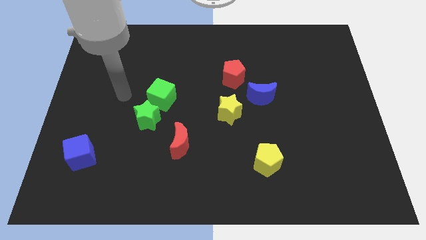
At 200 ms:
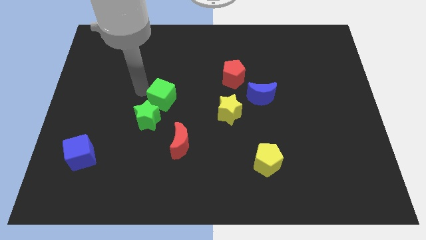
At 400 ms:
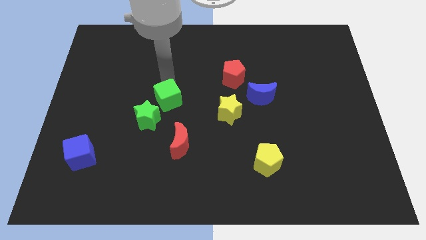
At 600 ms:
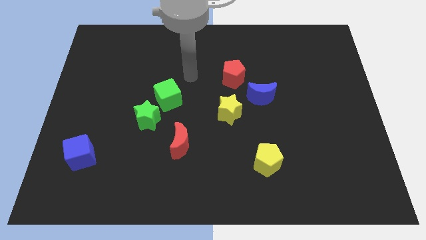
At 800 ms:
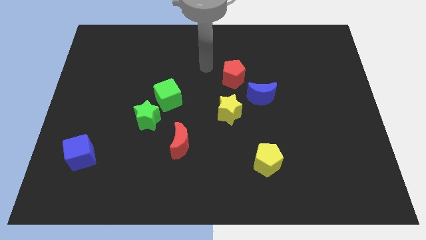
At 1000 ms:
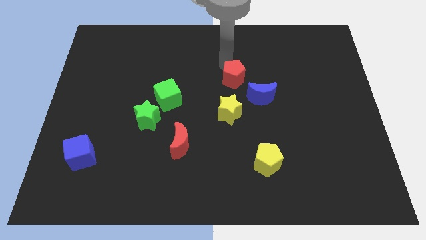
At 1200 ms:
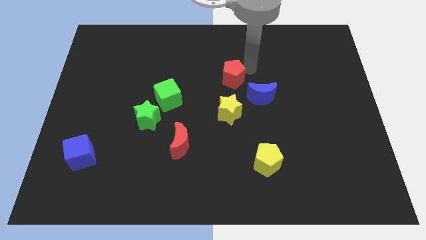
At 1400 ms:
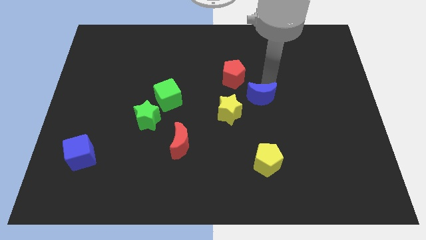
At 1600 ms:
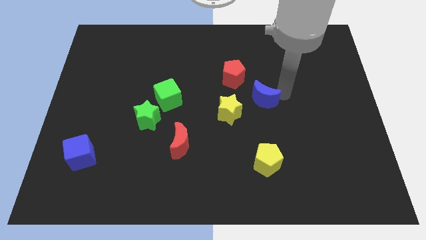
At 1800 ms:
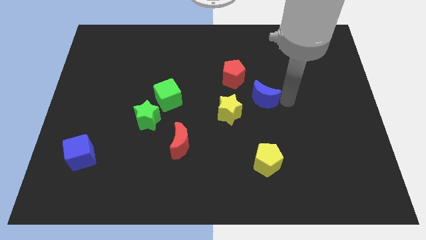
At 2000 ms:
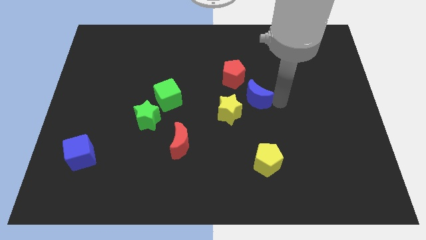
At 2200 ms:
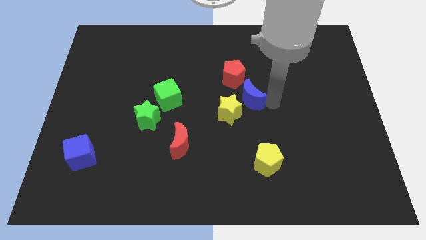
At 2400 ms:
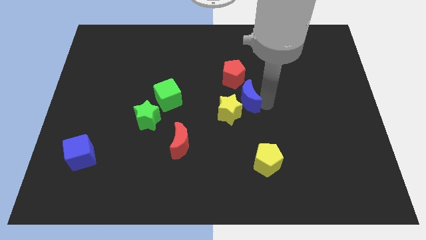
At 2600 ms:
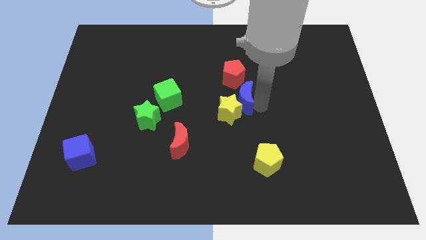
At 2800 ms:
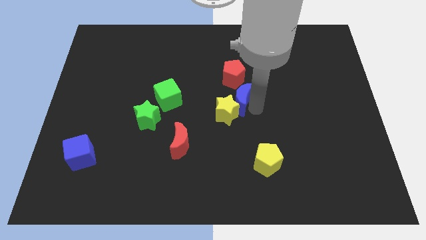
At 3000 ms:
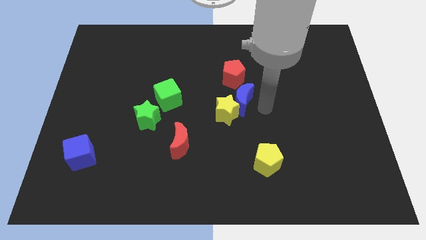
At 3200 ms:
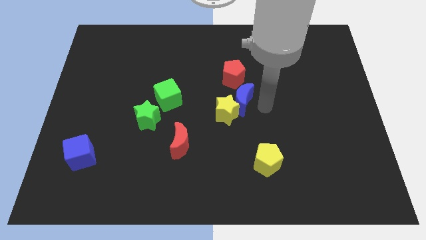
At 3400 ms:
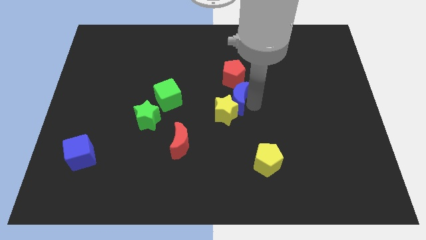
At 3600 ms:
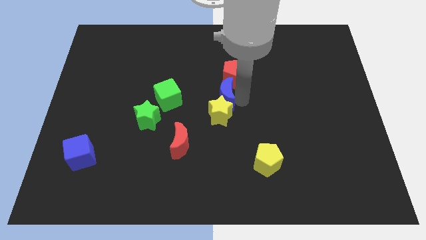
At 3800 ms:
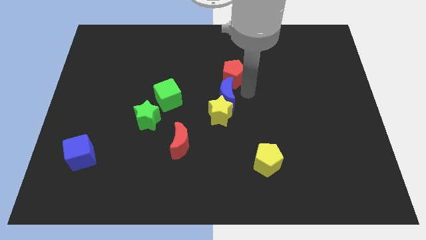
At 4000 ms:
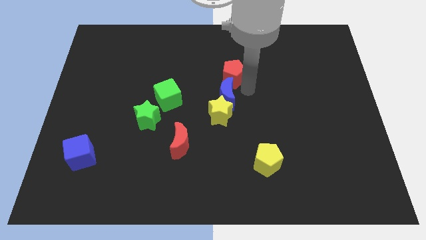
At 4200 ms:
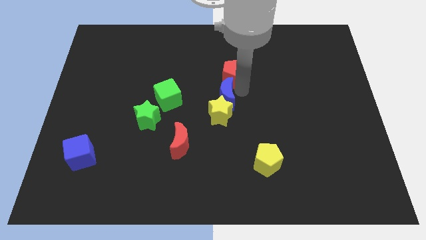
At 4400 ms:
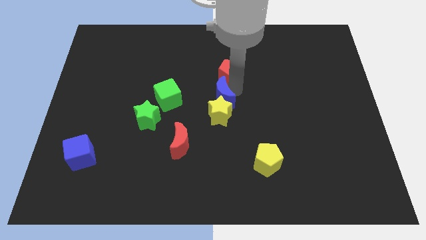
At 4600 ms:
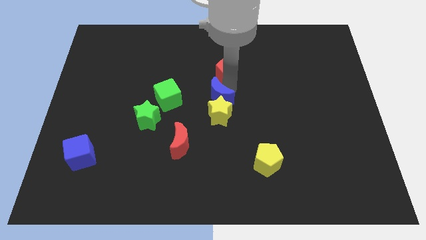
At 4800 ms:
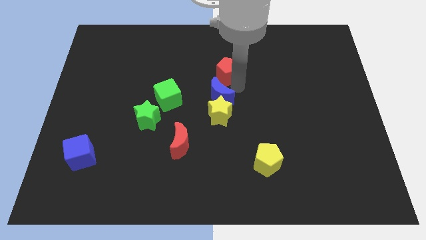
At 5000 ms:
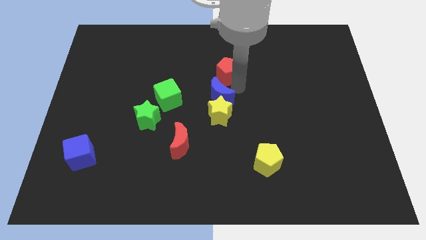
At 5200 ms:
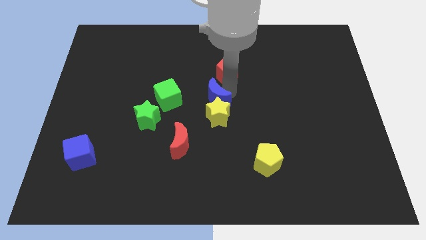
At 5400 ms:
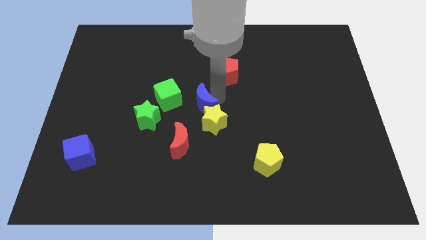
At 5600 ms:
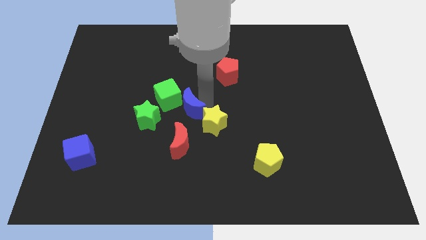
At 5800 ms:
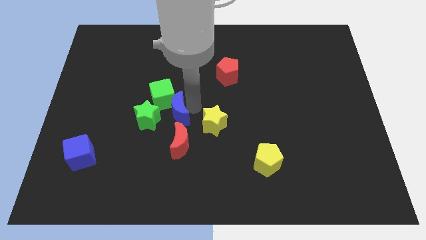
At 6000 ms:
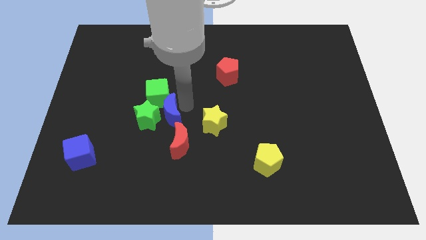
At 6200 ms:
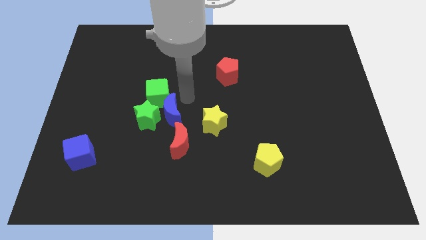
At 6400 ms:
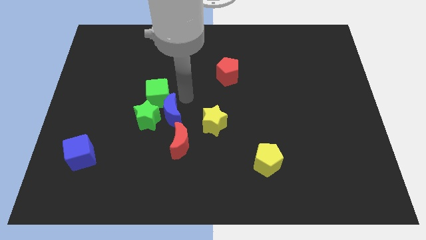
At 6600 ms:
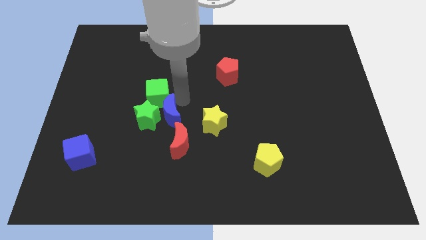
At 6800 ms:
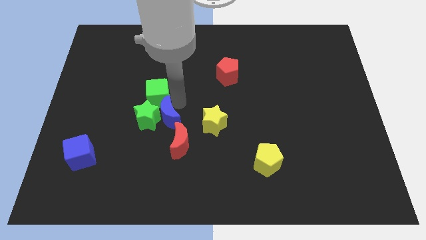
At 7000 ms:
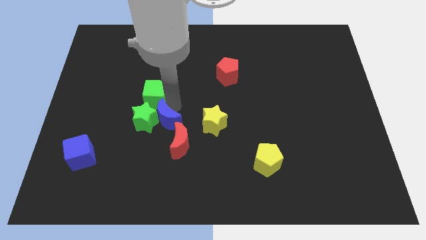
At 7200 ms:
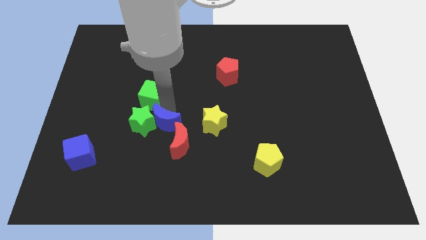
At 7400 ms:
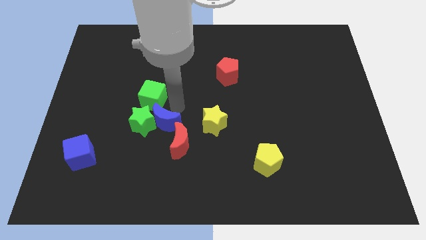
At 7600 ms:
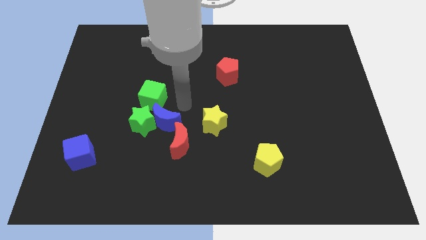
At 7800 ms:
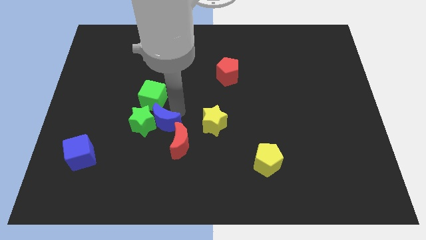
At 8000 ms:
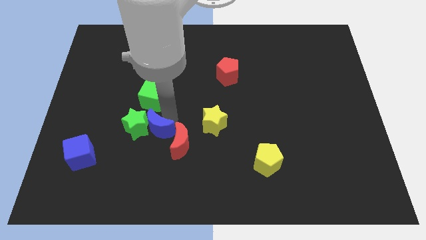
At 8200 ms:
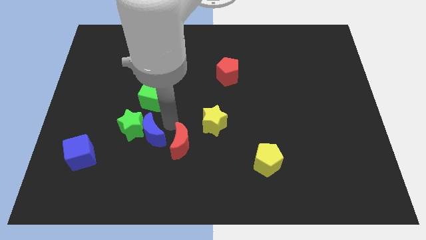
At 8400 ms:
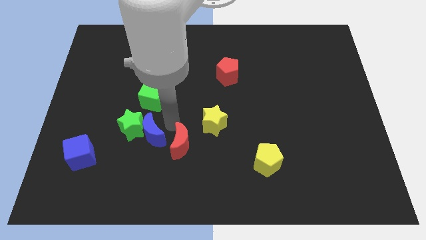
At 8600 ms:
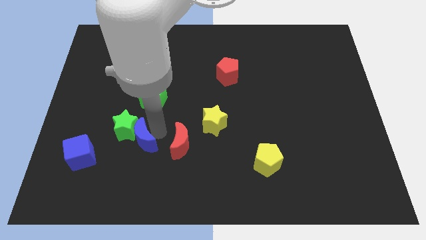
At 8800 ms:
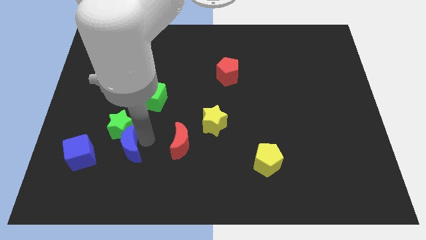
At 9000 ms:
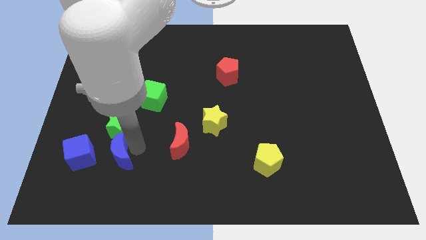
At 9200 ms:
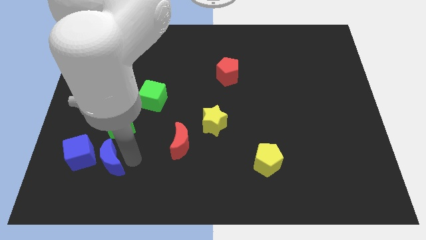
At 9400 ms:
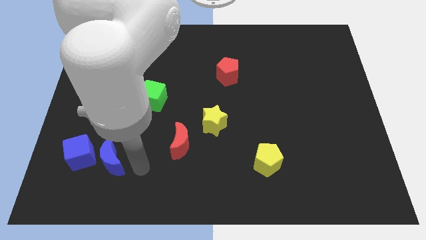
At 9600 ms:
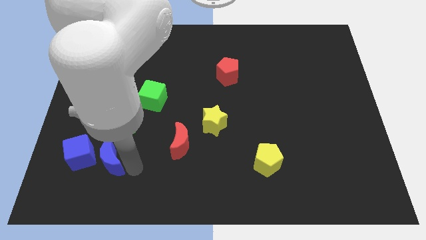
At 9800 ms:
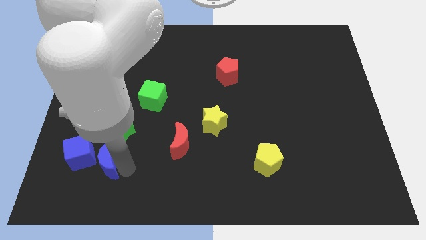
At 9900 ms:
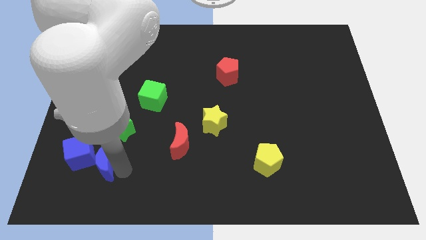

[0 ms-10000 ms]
slide the blue moon close to the blue cube

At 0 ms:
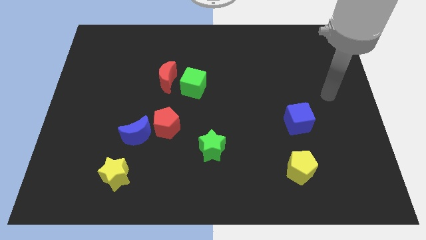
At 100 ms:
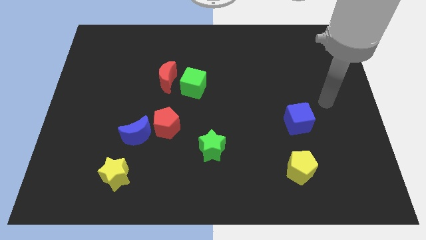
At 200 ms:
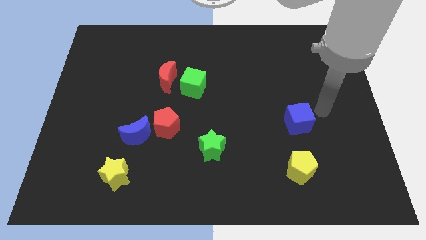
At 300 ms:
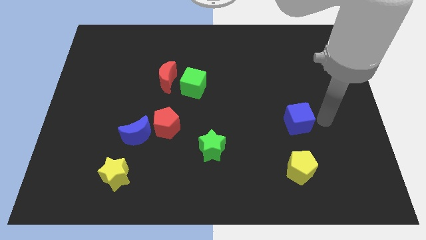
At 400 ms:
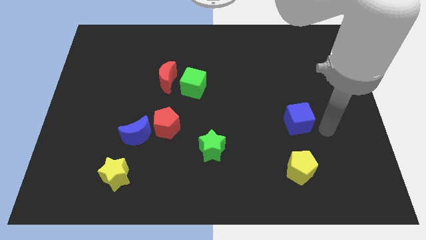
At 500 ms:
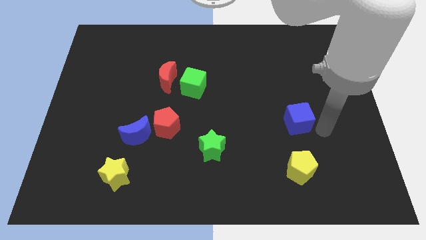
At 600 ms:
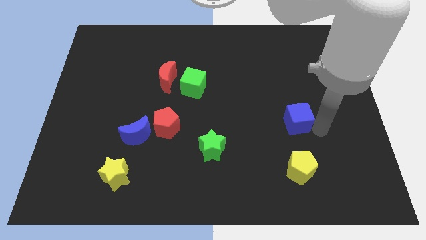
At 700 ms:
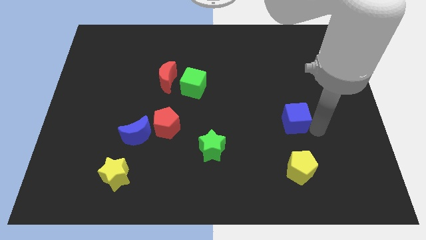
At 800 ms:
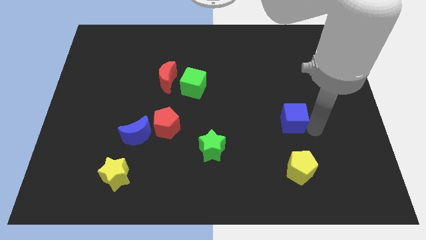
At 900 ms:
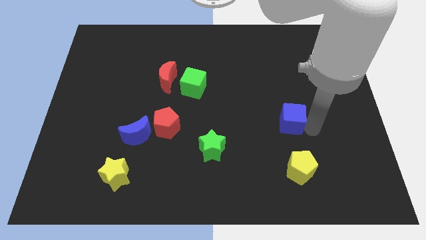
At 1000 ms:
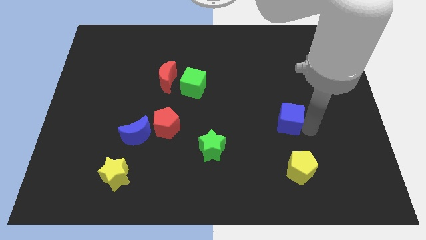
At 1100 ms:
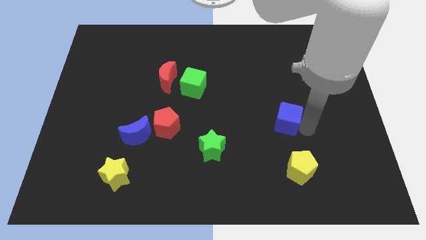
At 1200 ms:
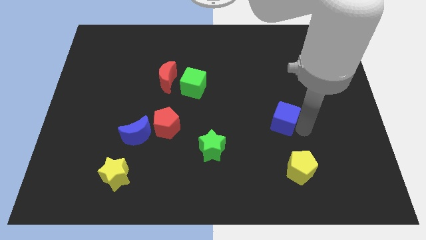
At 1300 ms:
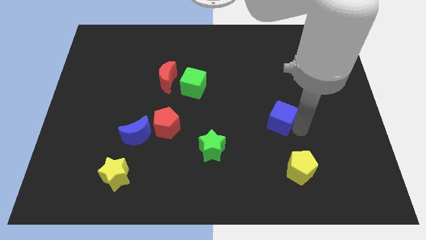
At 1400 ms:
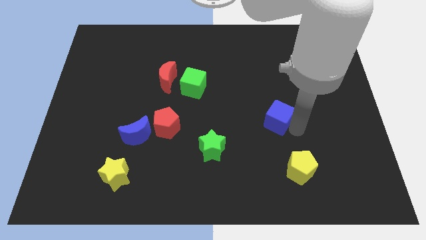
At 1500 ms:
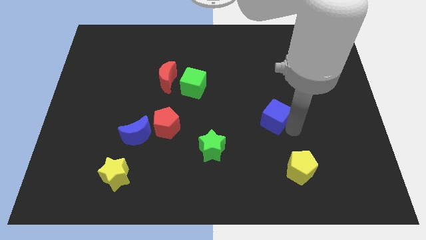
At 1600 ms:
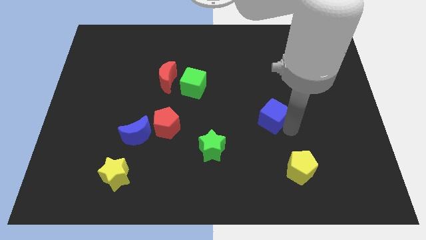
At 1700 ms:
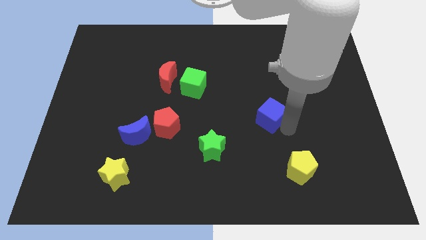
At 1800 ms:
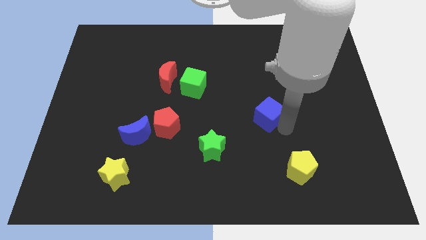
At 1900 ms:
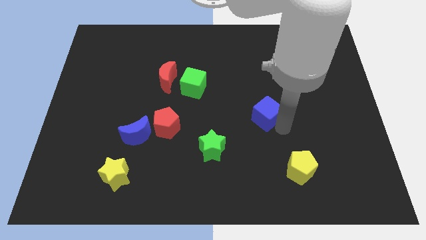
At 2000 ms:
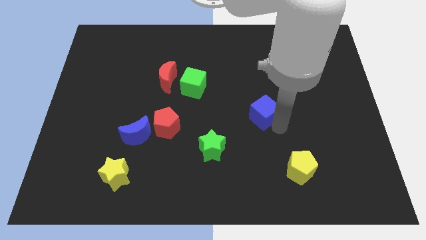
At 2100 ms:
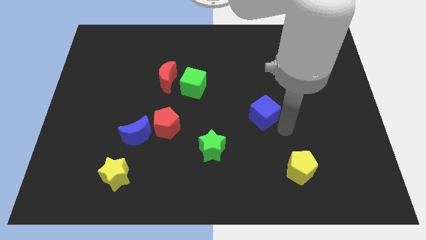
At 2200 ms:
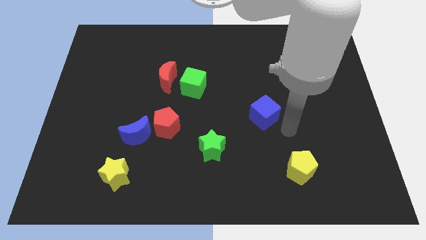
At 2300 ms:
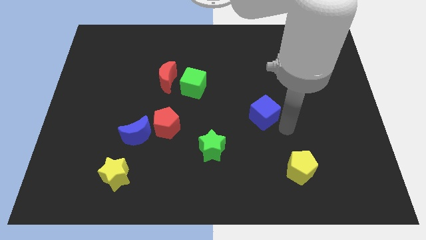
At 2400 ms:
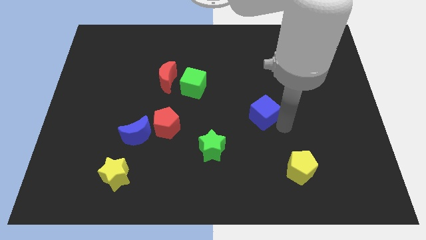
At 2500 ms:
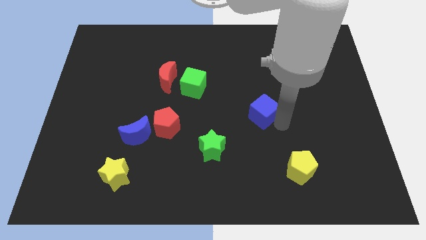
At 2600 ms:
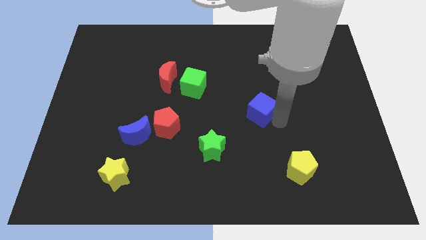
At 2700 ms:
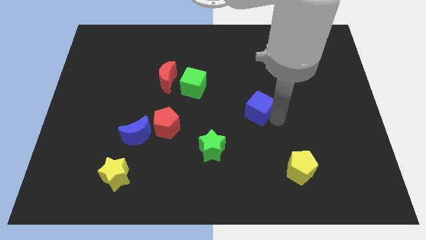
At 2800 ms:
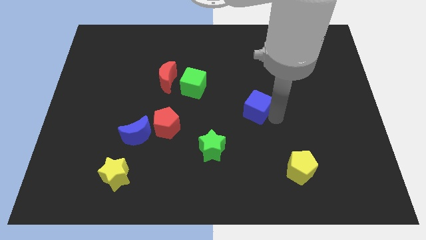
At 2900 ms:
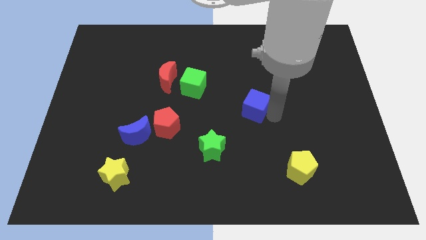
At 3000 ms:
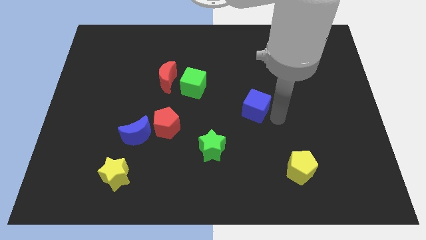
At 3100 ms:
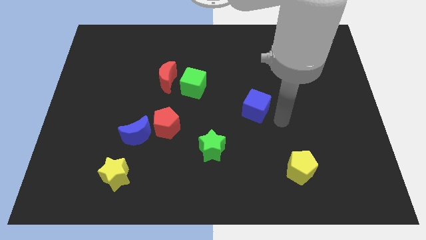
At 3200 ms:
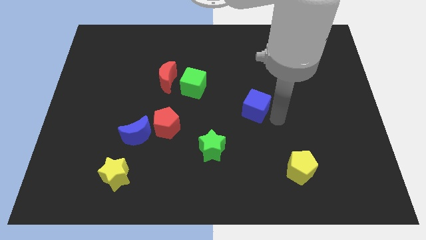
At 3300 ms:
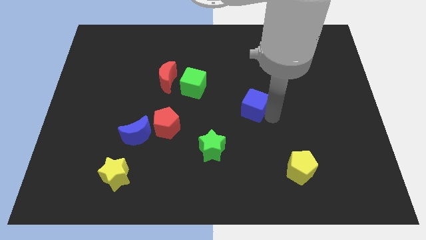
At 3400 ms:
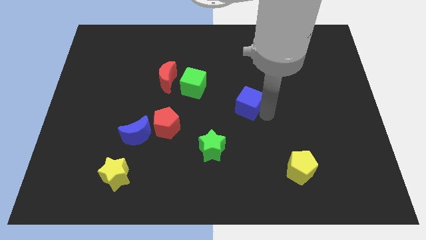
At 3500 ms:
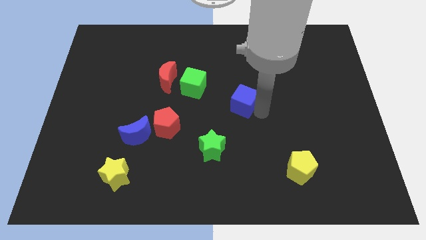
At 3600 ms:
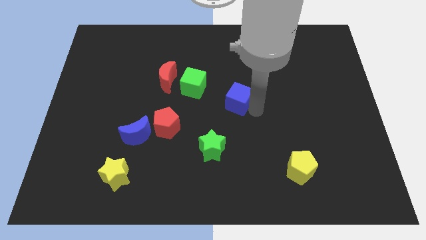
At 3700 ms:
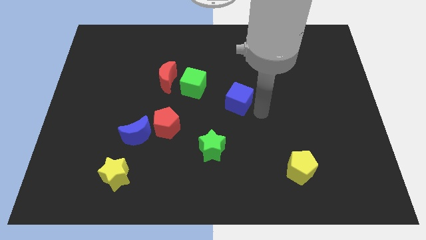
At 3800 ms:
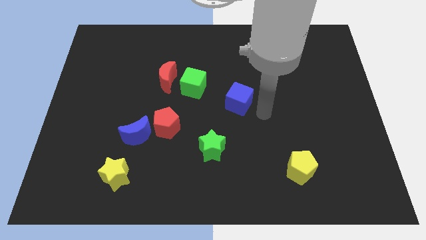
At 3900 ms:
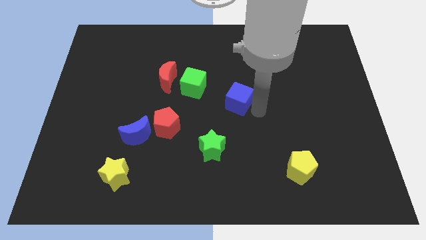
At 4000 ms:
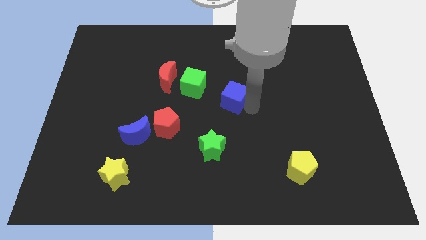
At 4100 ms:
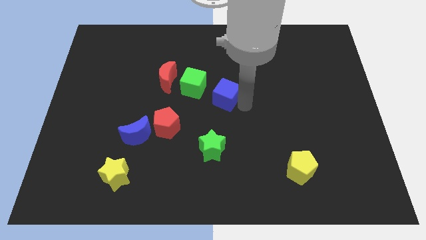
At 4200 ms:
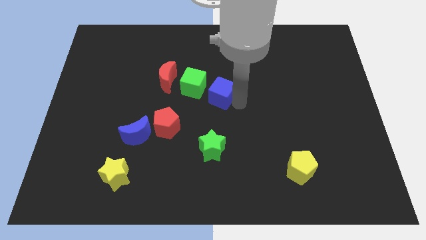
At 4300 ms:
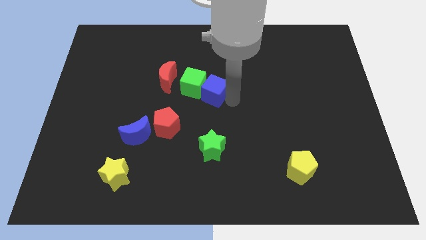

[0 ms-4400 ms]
put the blue cube close to the green cube
